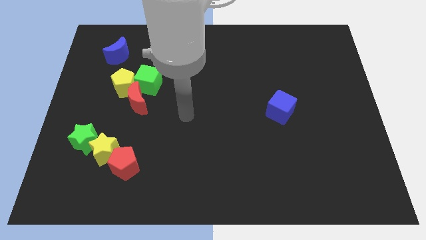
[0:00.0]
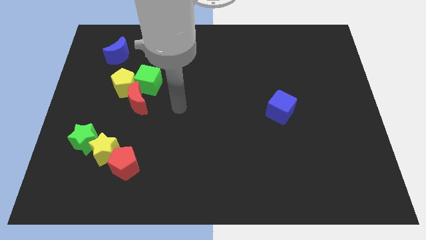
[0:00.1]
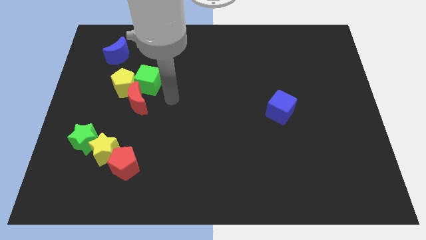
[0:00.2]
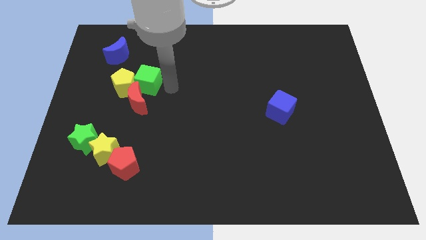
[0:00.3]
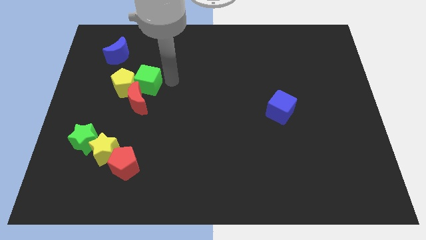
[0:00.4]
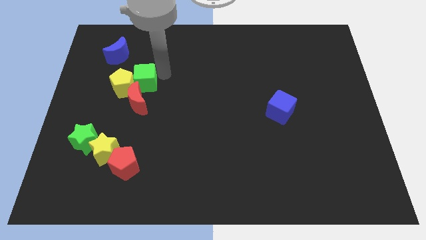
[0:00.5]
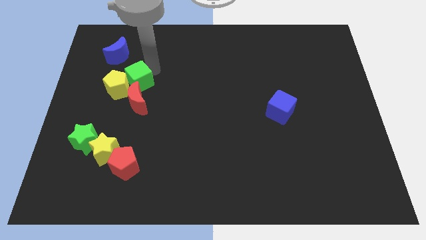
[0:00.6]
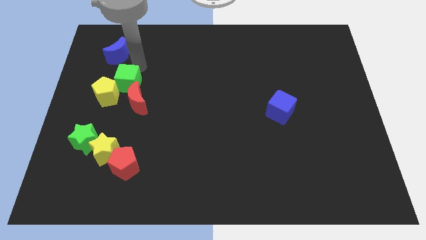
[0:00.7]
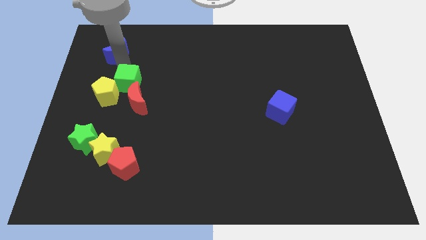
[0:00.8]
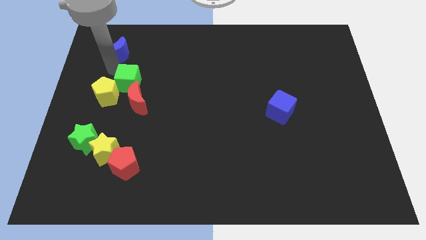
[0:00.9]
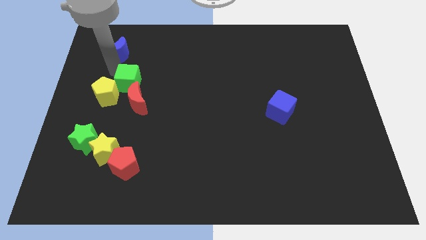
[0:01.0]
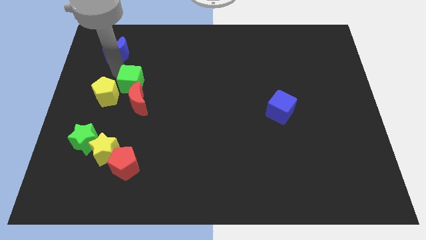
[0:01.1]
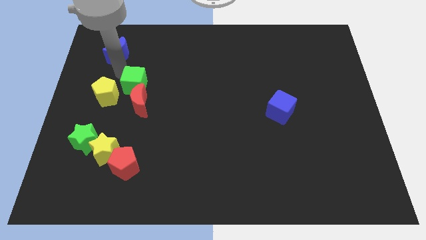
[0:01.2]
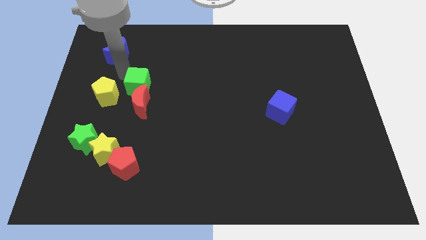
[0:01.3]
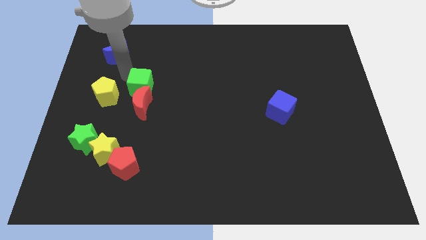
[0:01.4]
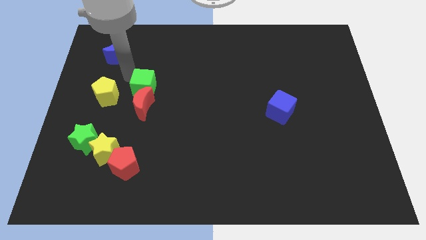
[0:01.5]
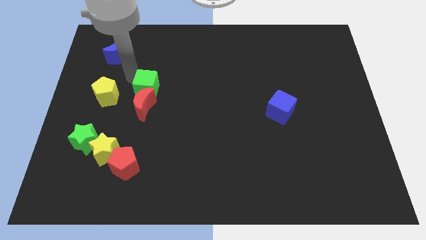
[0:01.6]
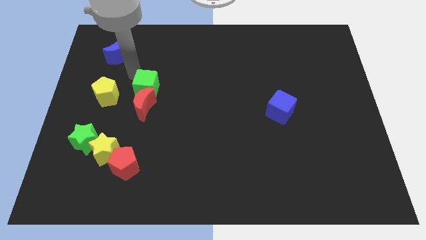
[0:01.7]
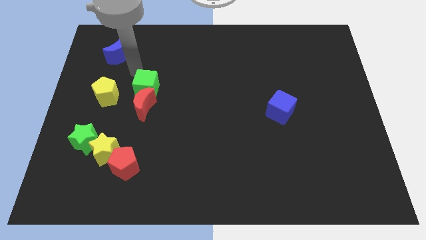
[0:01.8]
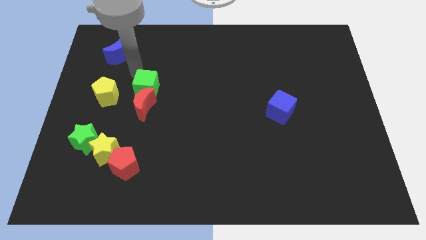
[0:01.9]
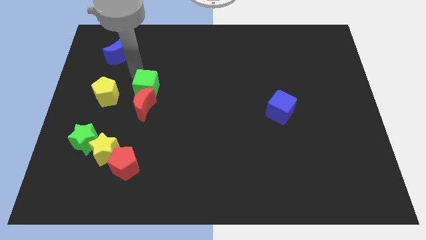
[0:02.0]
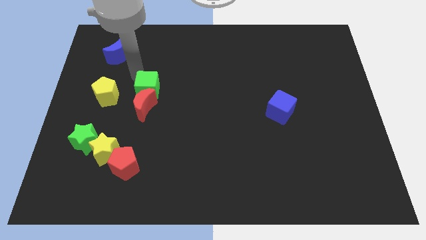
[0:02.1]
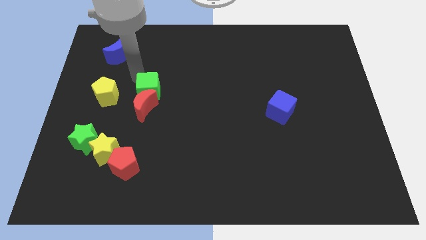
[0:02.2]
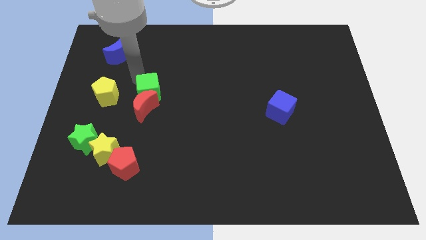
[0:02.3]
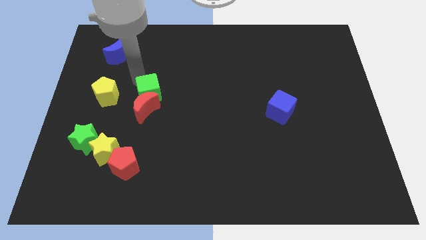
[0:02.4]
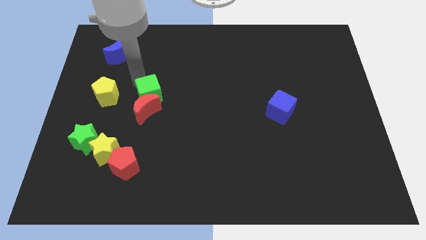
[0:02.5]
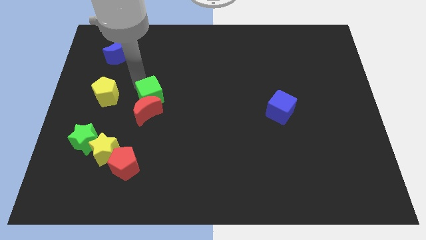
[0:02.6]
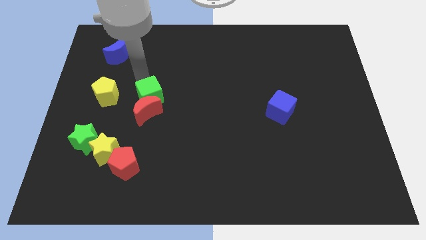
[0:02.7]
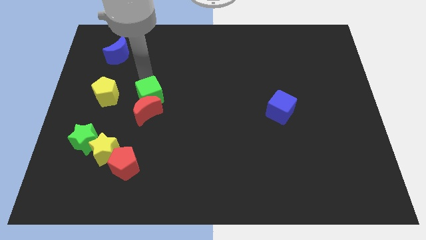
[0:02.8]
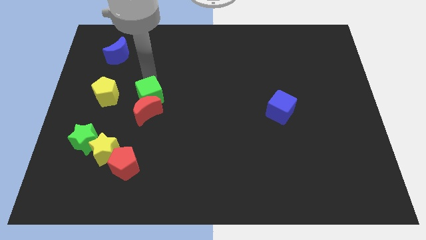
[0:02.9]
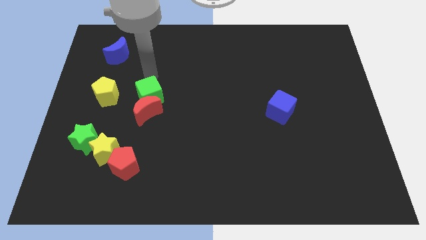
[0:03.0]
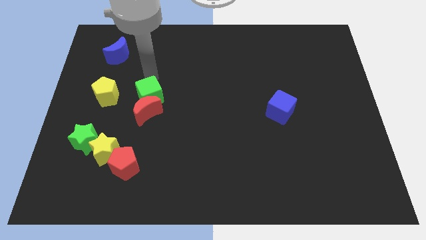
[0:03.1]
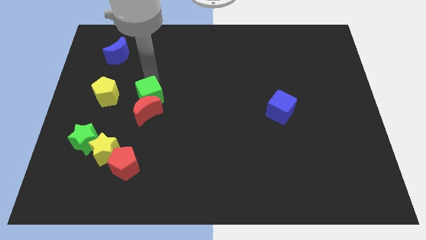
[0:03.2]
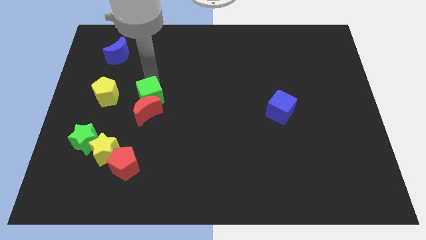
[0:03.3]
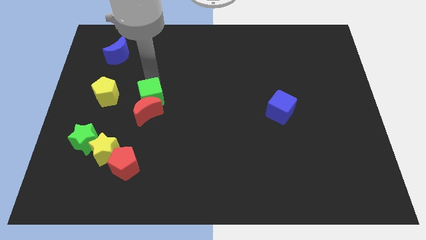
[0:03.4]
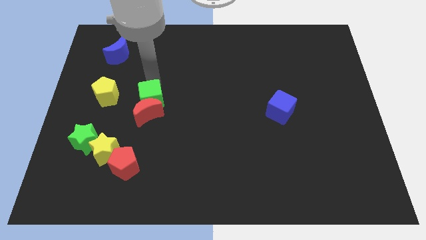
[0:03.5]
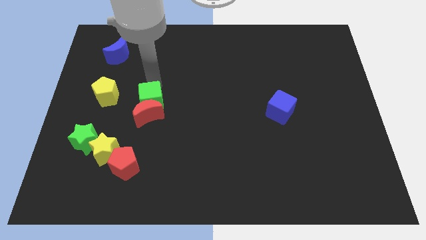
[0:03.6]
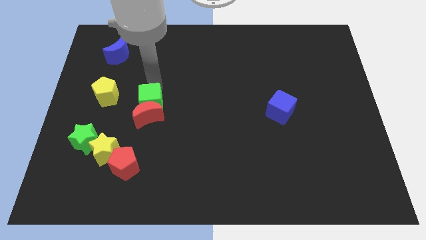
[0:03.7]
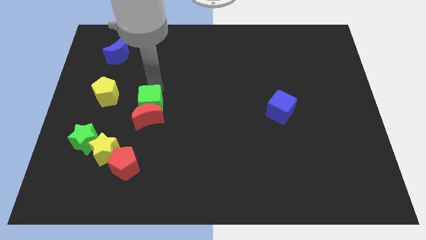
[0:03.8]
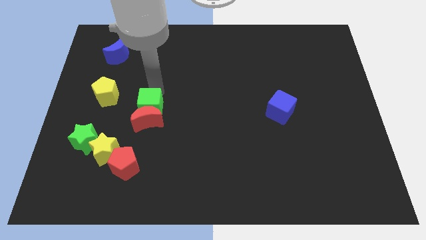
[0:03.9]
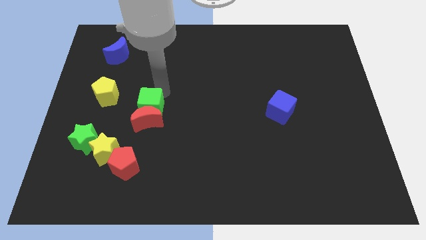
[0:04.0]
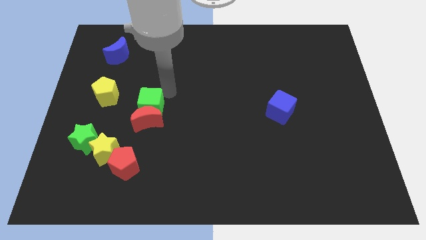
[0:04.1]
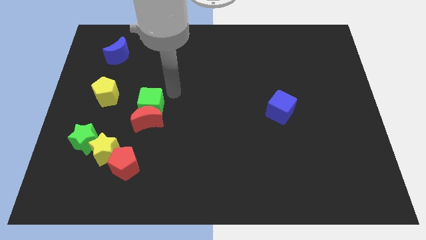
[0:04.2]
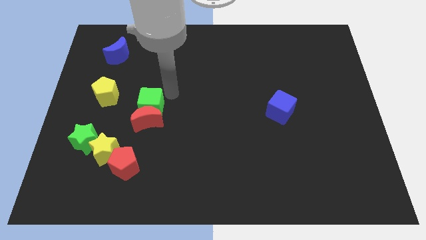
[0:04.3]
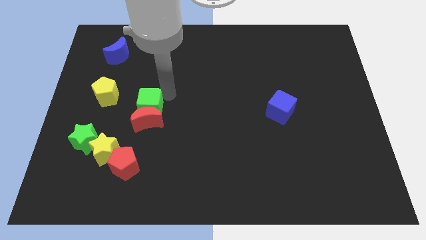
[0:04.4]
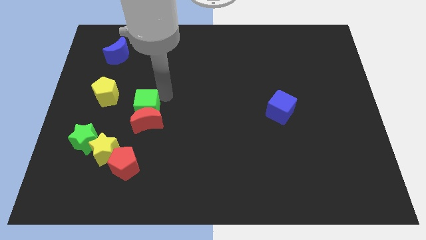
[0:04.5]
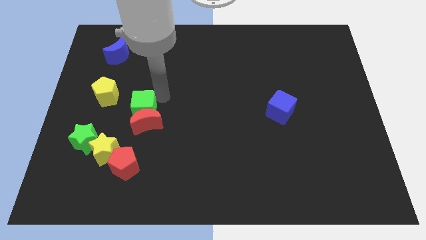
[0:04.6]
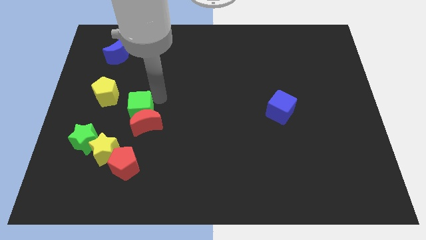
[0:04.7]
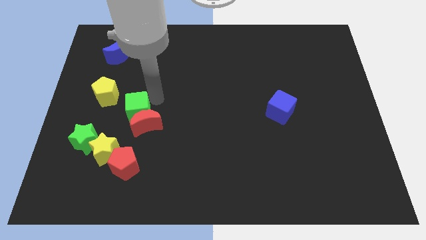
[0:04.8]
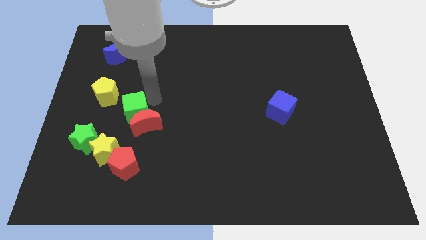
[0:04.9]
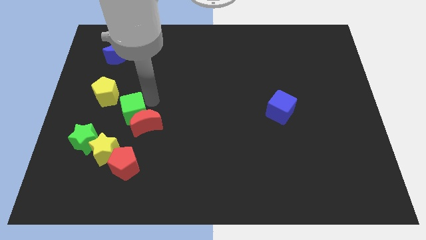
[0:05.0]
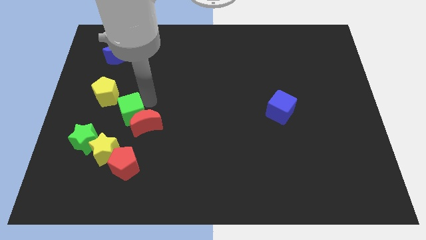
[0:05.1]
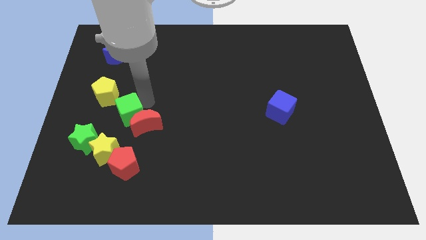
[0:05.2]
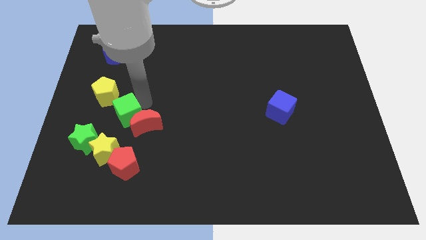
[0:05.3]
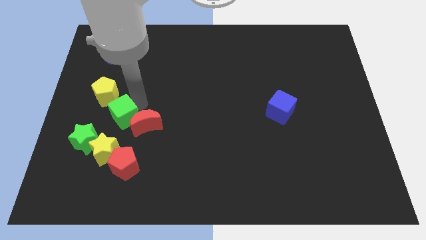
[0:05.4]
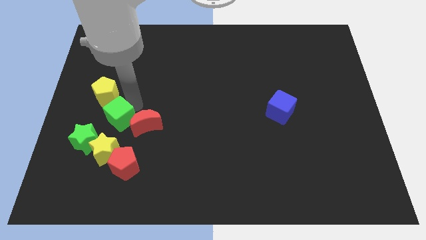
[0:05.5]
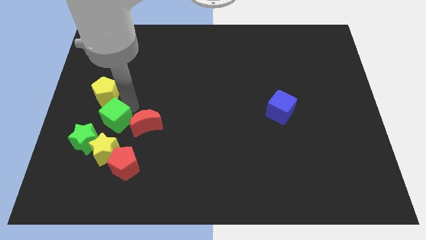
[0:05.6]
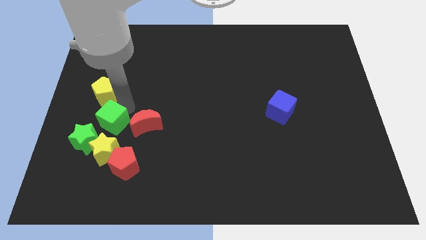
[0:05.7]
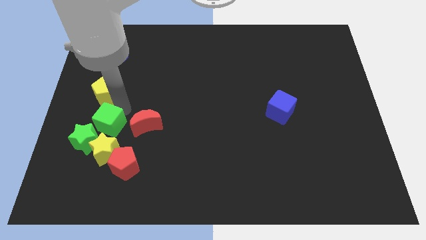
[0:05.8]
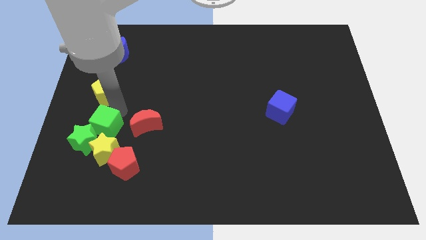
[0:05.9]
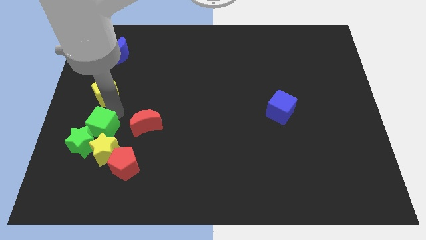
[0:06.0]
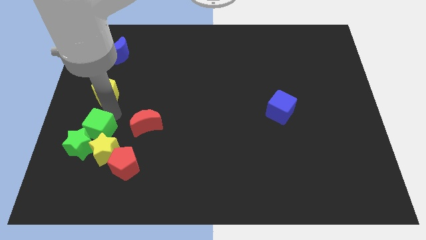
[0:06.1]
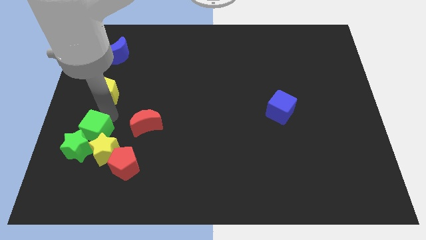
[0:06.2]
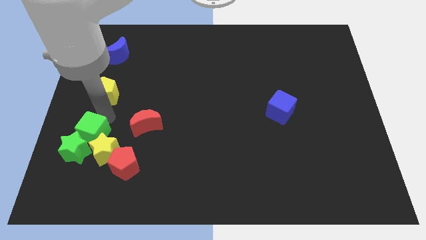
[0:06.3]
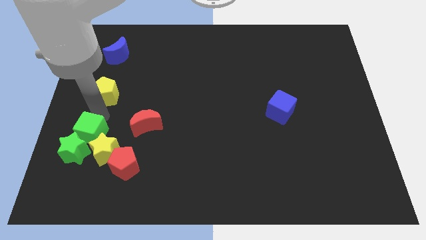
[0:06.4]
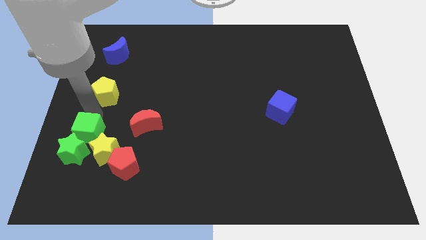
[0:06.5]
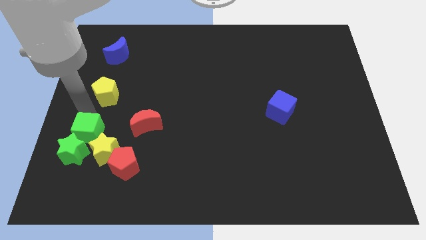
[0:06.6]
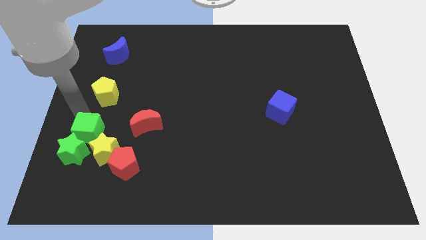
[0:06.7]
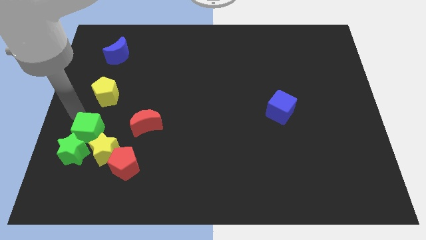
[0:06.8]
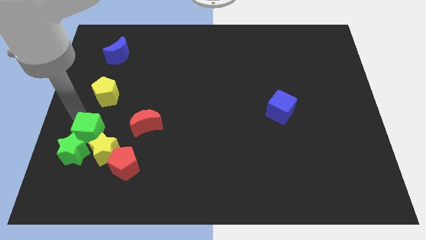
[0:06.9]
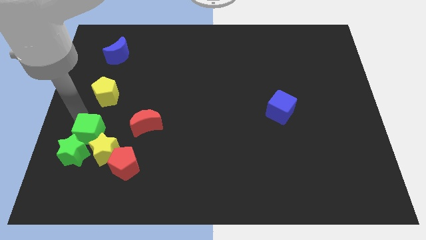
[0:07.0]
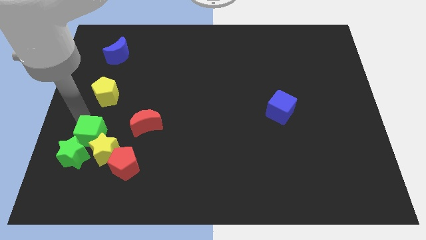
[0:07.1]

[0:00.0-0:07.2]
push the green cube close to the yellow star
